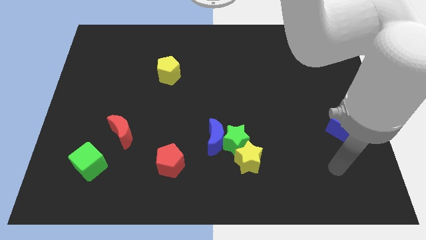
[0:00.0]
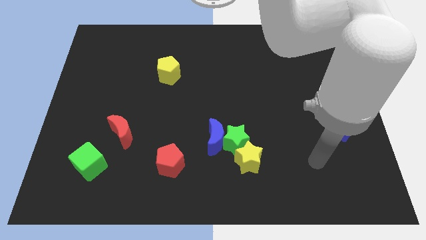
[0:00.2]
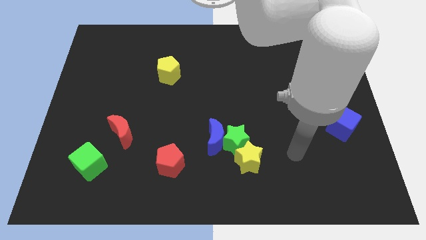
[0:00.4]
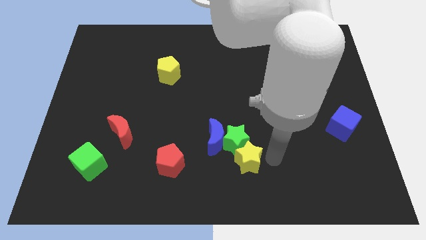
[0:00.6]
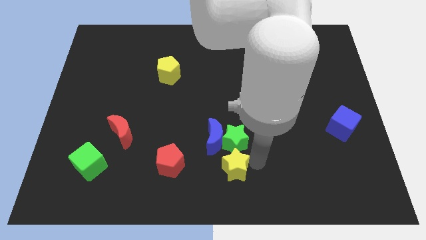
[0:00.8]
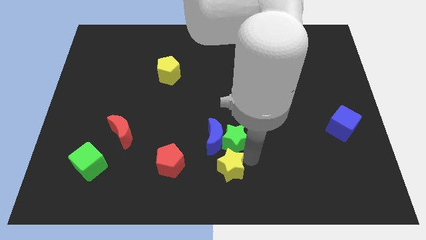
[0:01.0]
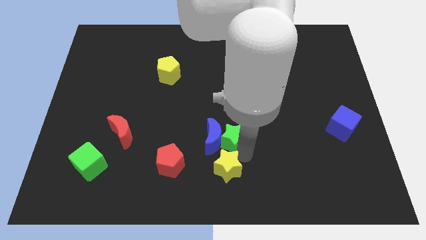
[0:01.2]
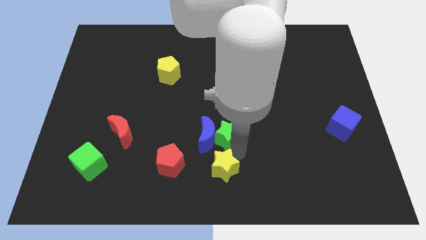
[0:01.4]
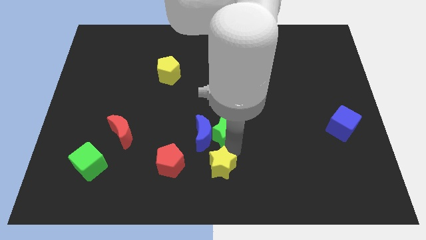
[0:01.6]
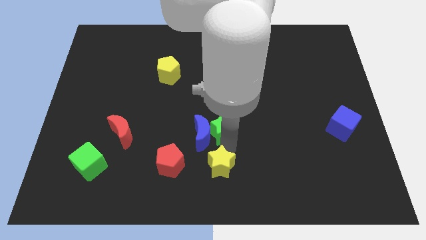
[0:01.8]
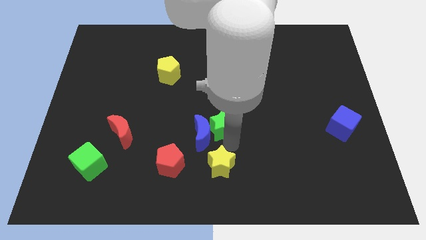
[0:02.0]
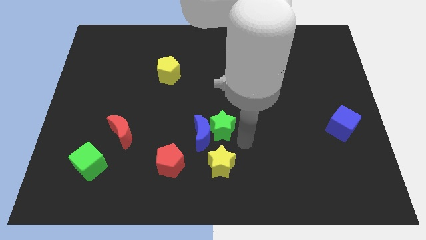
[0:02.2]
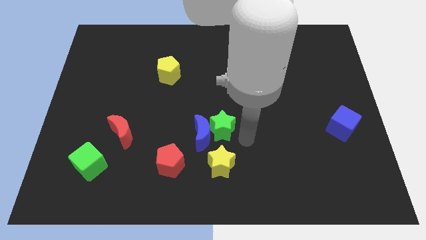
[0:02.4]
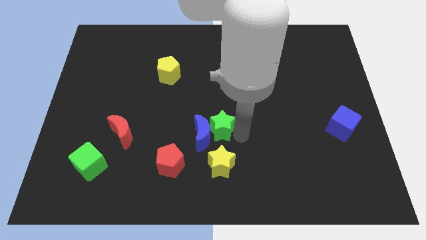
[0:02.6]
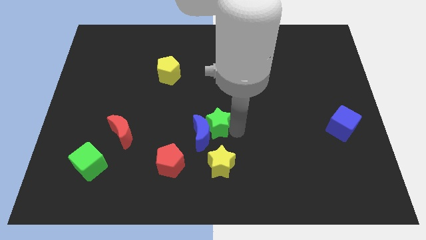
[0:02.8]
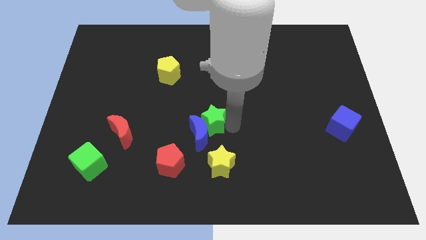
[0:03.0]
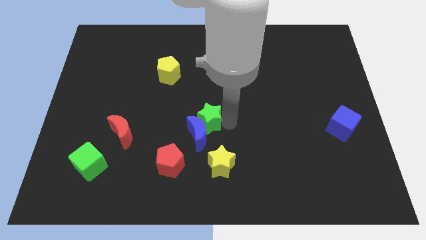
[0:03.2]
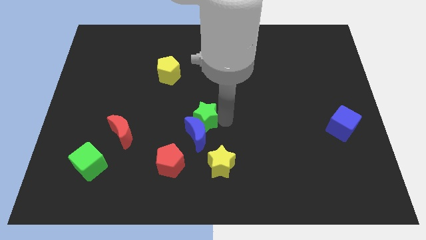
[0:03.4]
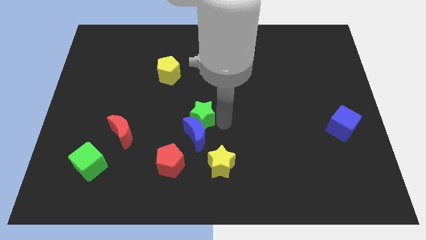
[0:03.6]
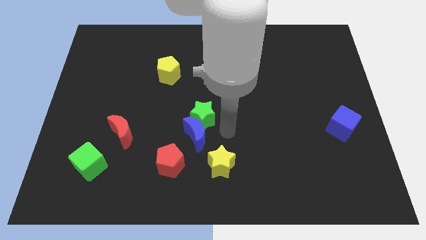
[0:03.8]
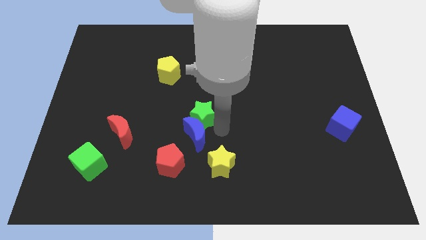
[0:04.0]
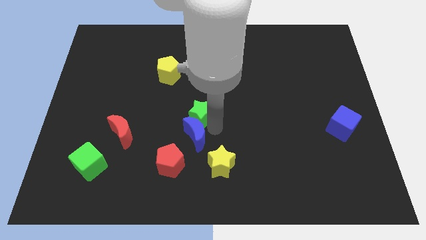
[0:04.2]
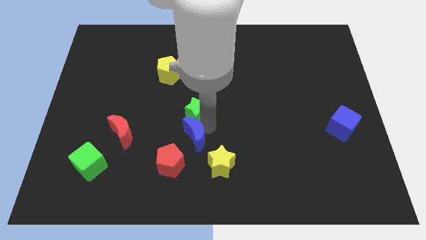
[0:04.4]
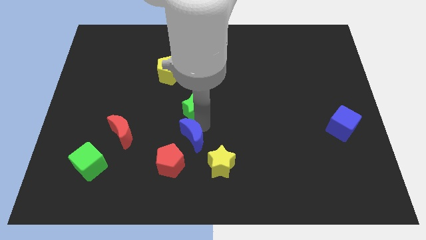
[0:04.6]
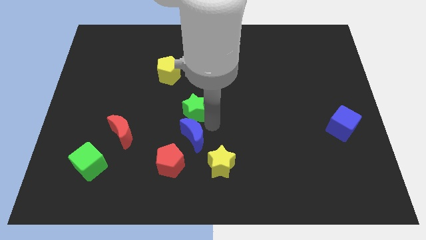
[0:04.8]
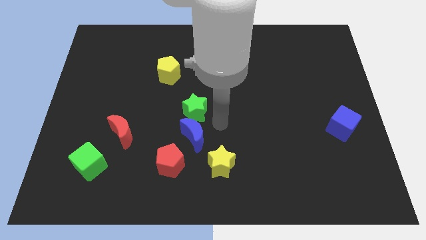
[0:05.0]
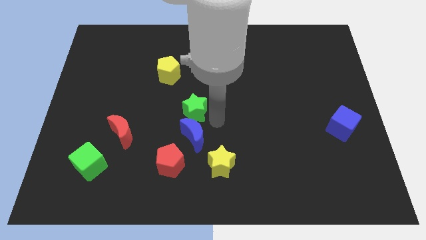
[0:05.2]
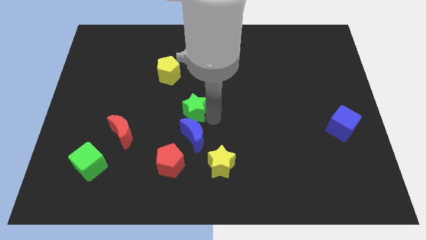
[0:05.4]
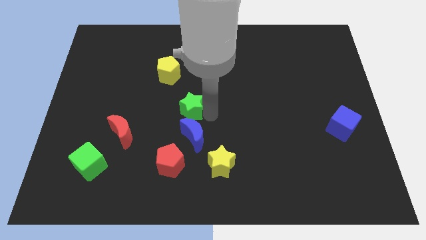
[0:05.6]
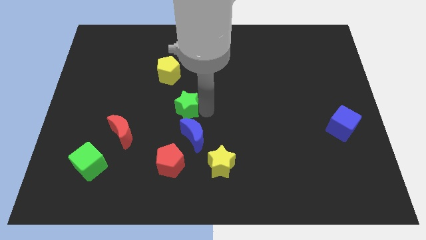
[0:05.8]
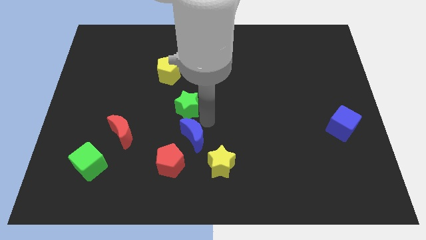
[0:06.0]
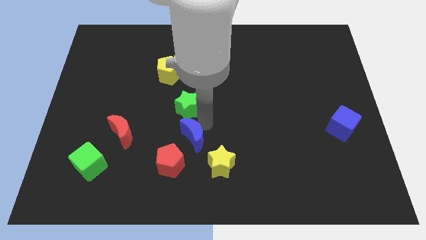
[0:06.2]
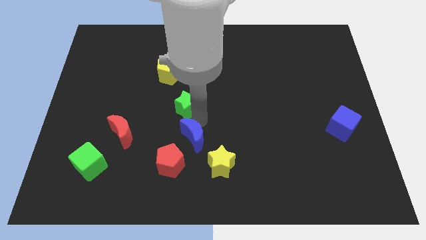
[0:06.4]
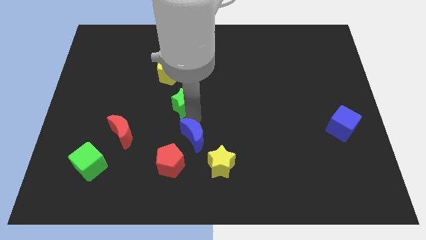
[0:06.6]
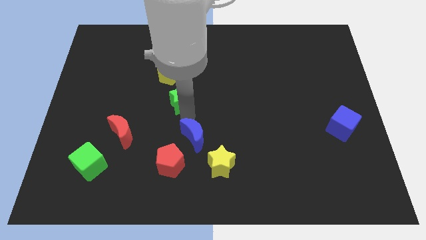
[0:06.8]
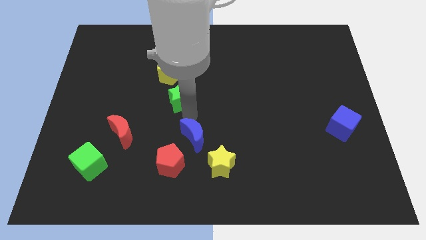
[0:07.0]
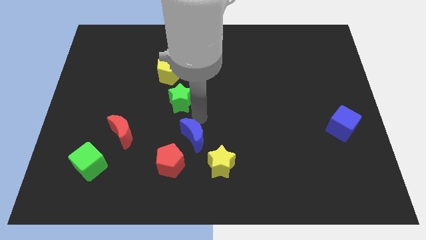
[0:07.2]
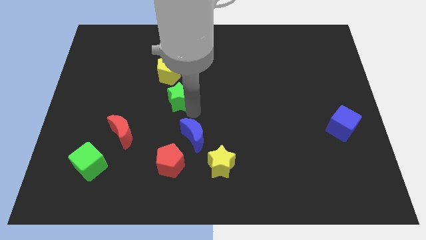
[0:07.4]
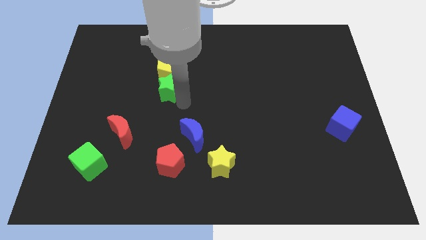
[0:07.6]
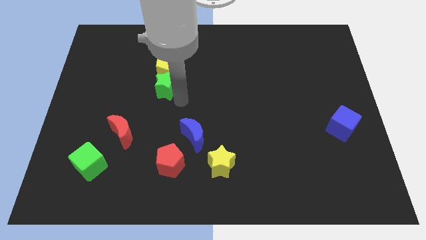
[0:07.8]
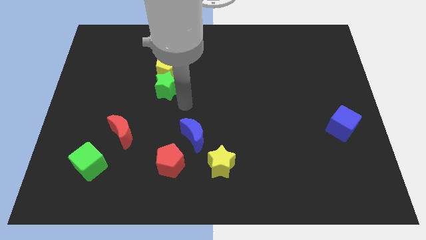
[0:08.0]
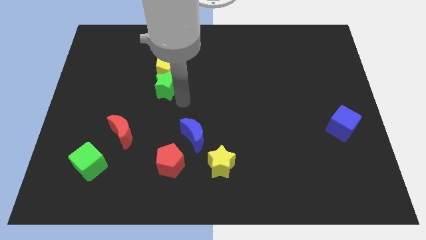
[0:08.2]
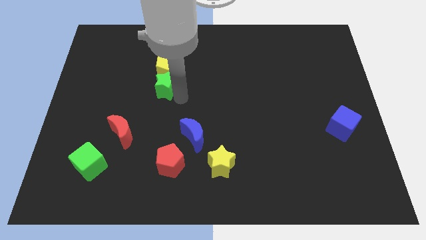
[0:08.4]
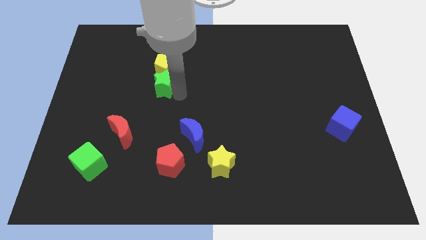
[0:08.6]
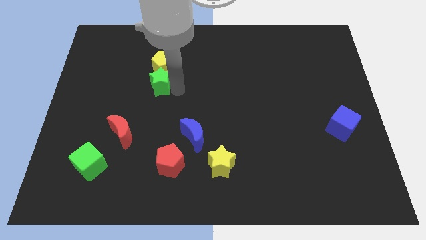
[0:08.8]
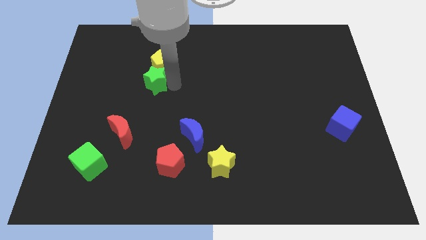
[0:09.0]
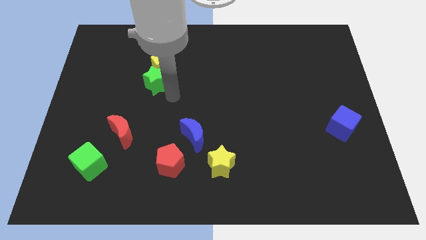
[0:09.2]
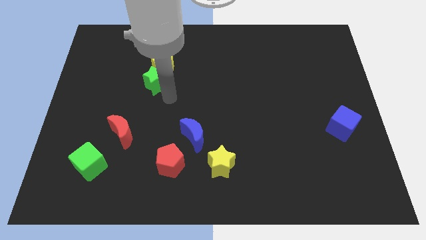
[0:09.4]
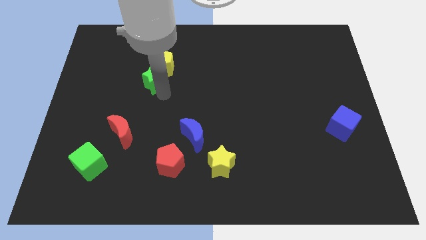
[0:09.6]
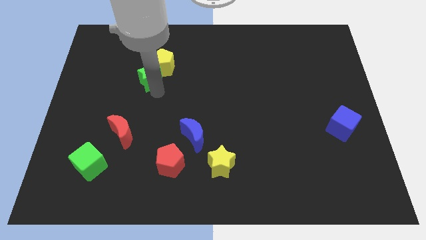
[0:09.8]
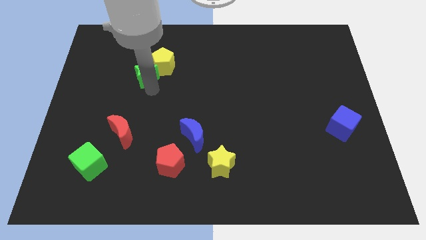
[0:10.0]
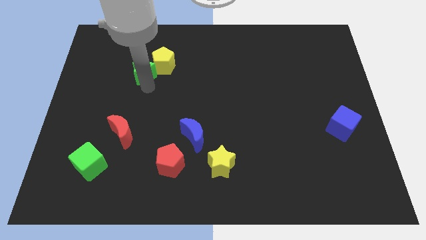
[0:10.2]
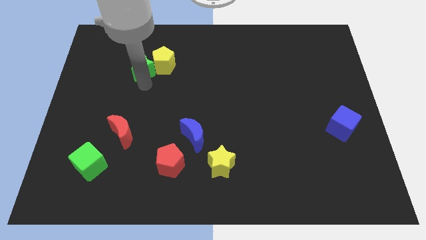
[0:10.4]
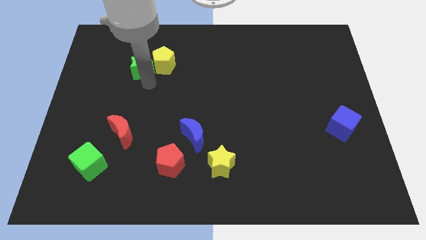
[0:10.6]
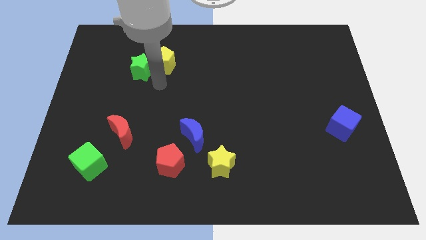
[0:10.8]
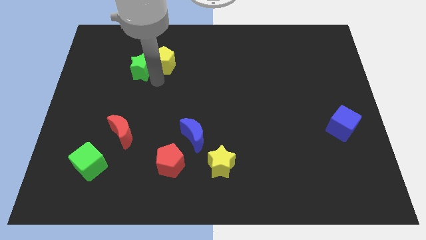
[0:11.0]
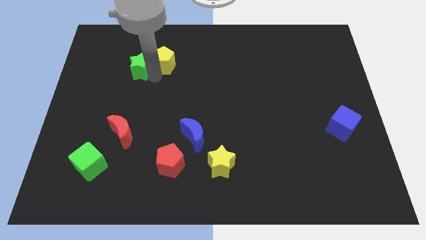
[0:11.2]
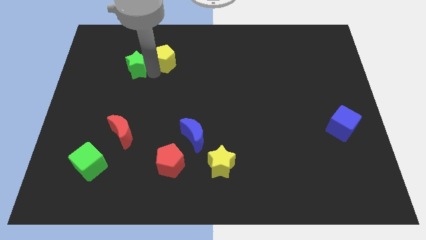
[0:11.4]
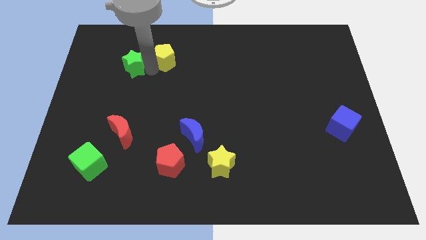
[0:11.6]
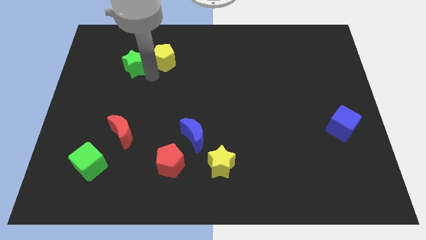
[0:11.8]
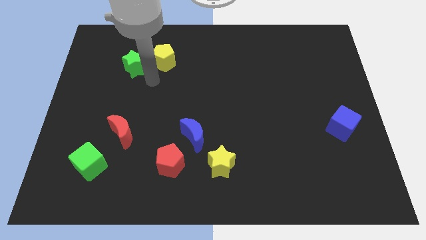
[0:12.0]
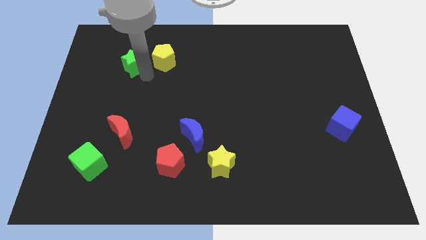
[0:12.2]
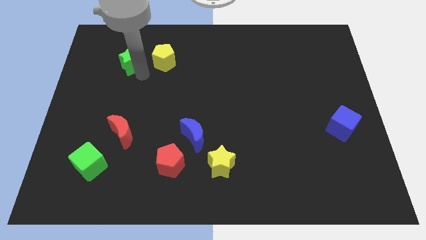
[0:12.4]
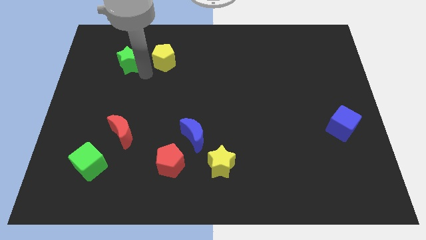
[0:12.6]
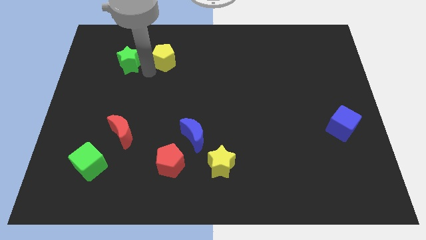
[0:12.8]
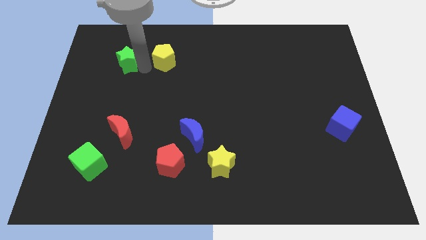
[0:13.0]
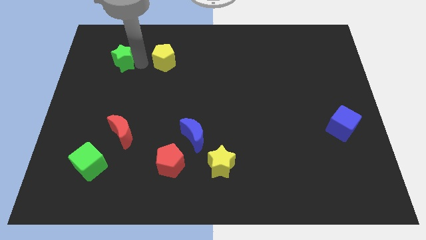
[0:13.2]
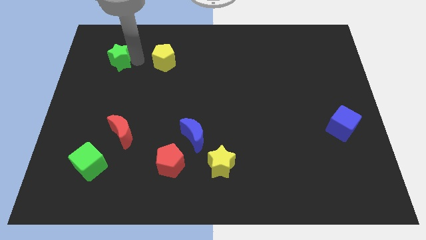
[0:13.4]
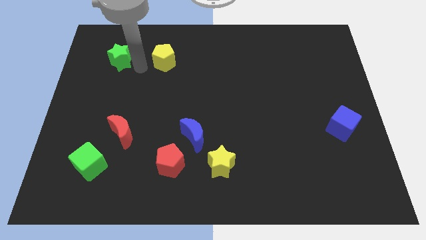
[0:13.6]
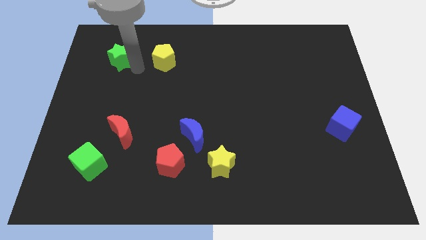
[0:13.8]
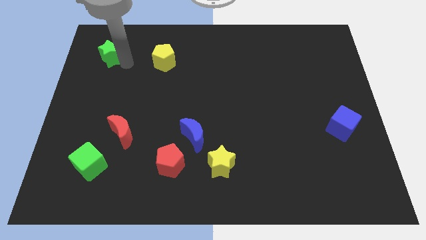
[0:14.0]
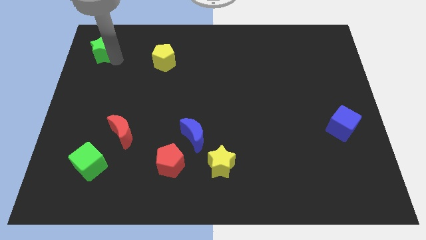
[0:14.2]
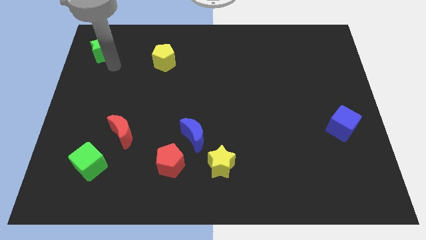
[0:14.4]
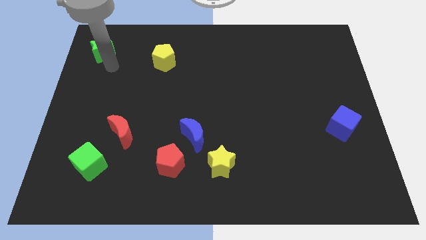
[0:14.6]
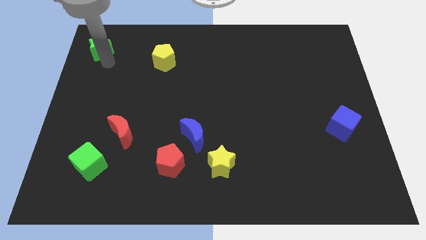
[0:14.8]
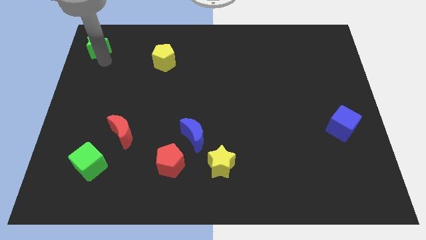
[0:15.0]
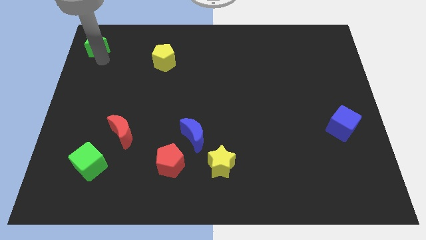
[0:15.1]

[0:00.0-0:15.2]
push the green star to the top left corner
